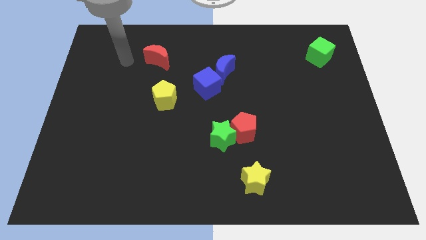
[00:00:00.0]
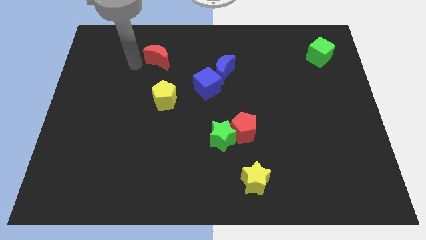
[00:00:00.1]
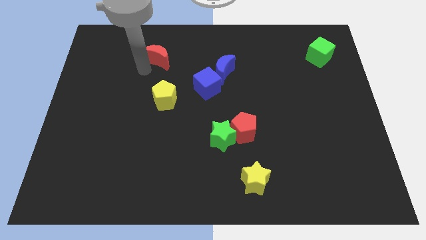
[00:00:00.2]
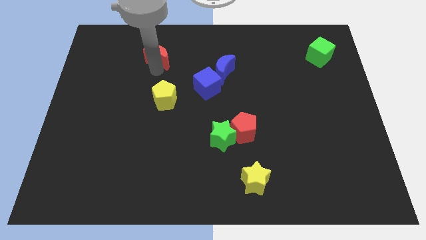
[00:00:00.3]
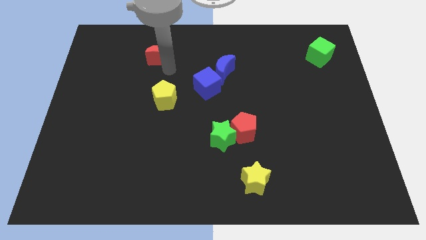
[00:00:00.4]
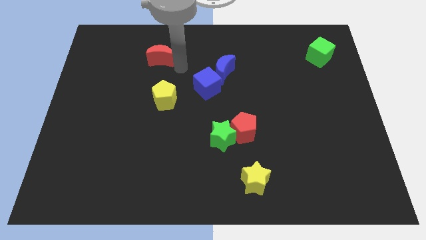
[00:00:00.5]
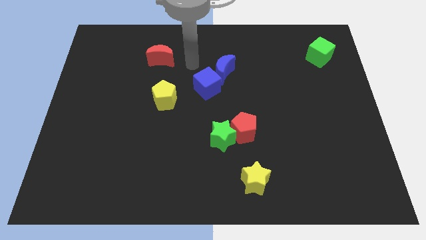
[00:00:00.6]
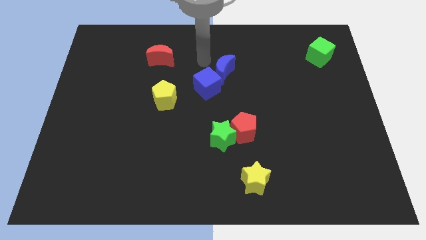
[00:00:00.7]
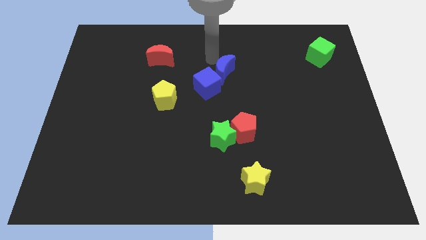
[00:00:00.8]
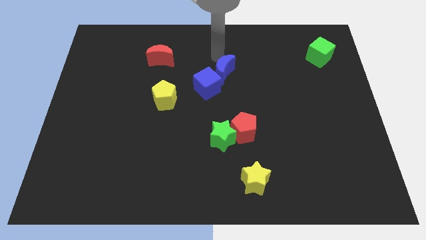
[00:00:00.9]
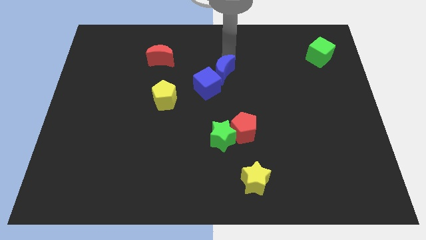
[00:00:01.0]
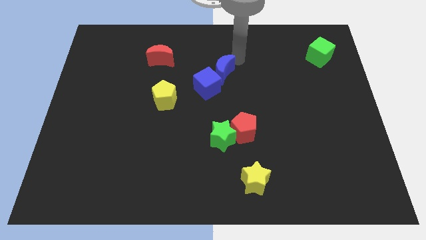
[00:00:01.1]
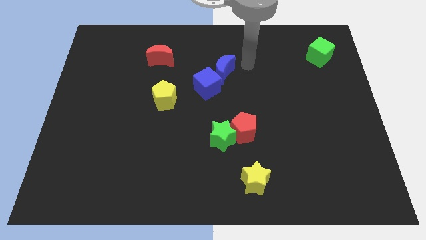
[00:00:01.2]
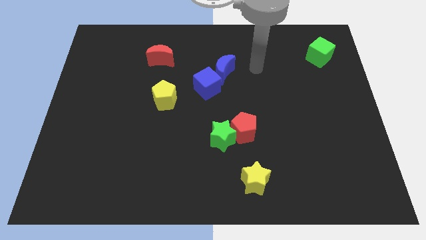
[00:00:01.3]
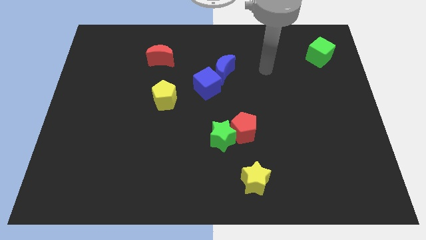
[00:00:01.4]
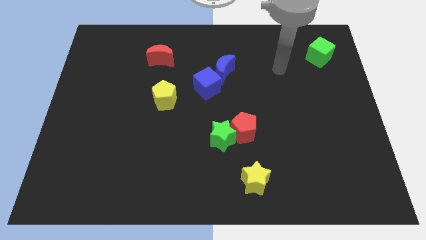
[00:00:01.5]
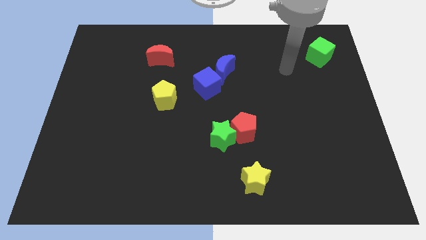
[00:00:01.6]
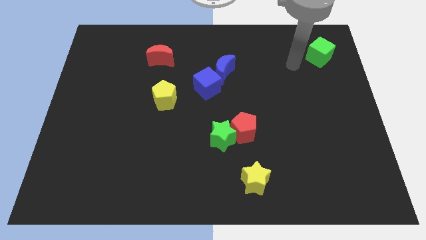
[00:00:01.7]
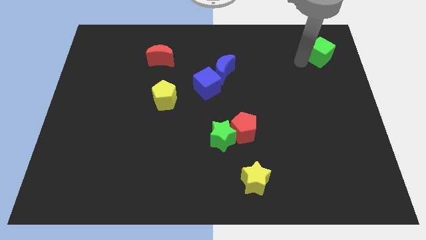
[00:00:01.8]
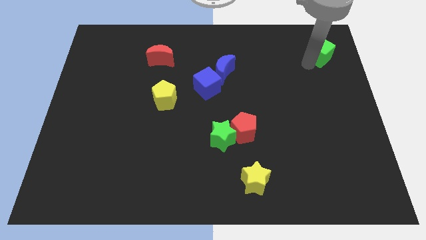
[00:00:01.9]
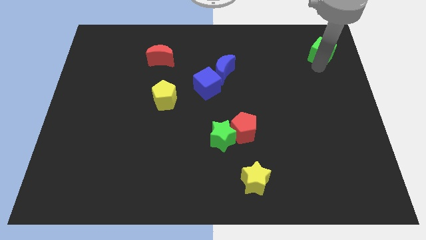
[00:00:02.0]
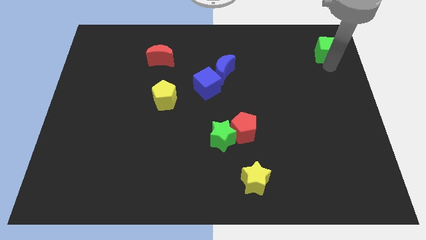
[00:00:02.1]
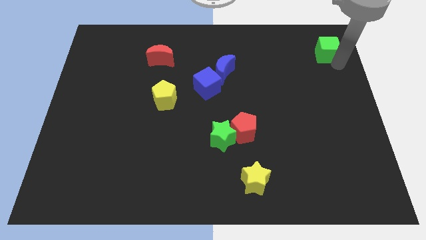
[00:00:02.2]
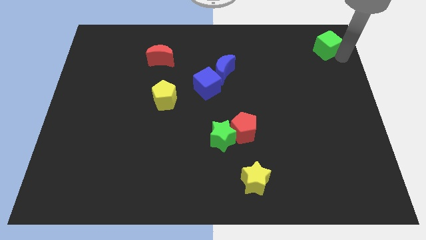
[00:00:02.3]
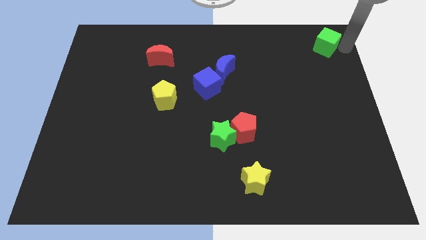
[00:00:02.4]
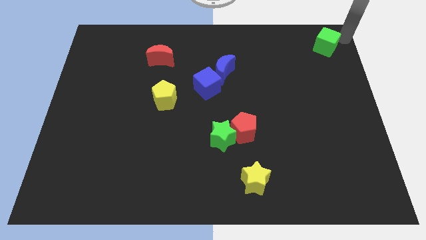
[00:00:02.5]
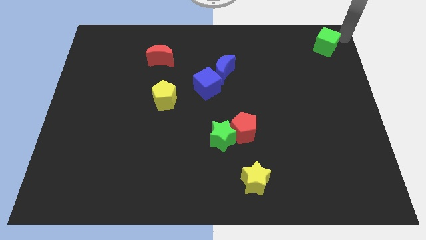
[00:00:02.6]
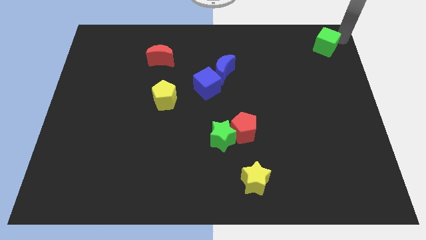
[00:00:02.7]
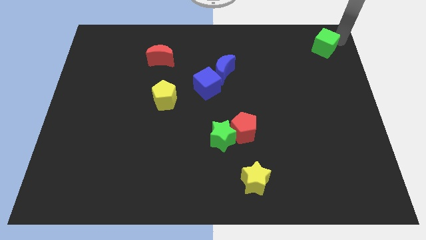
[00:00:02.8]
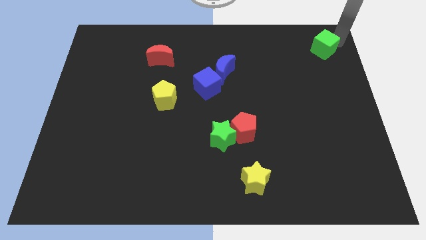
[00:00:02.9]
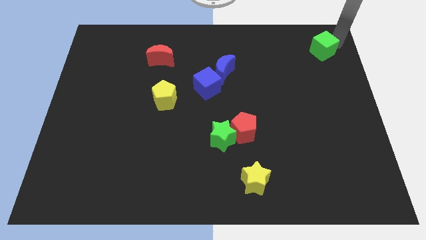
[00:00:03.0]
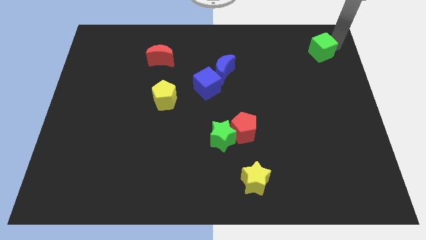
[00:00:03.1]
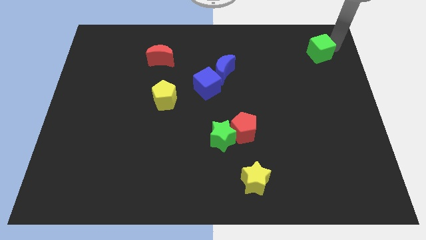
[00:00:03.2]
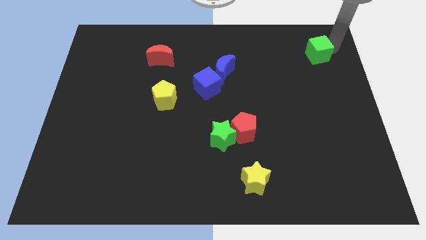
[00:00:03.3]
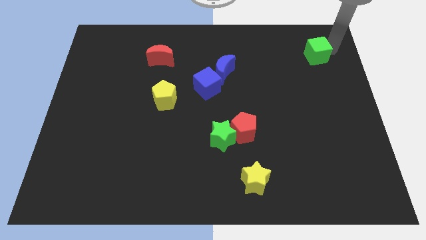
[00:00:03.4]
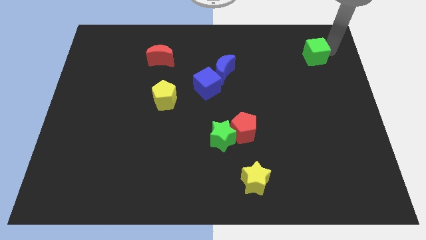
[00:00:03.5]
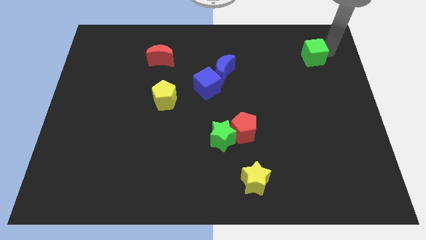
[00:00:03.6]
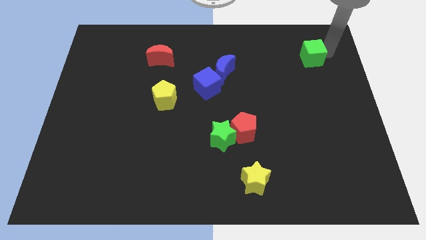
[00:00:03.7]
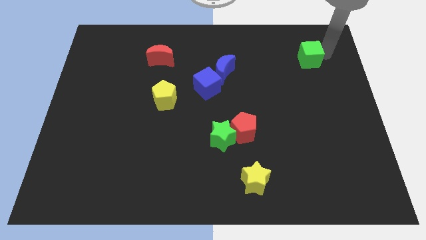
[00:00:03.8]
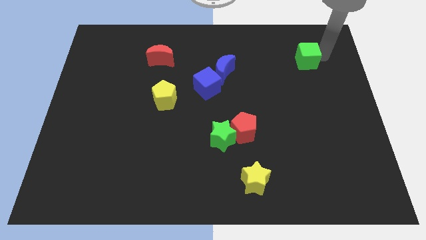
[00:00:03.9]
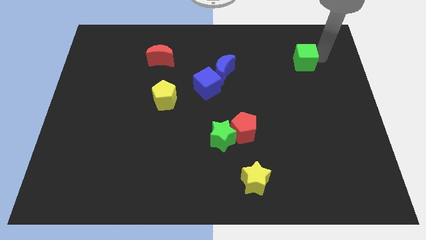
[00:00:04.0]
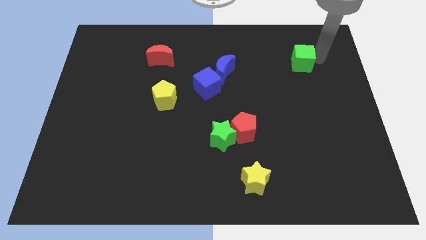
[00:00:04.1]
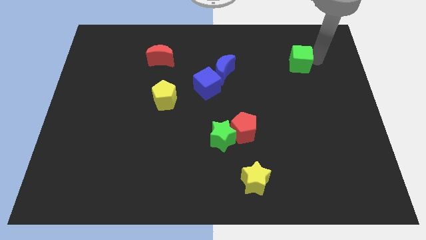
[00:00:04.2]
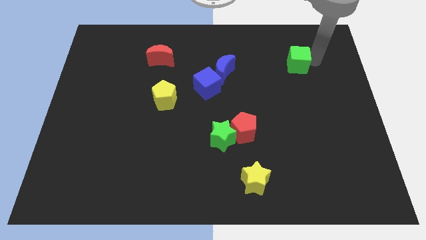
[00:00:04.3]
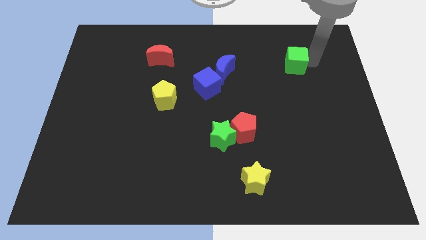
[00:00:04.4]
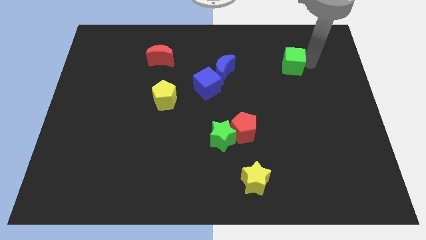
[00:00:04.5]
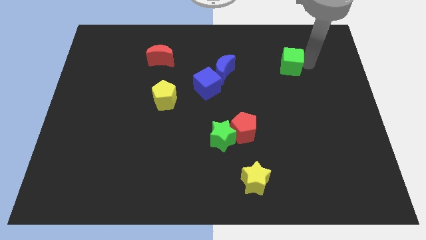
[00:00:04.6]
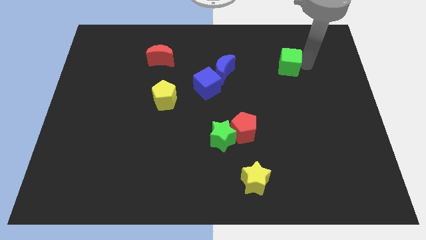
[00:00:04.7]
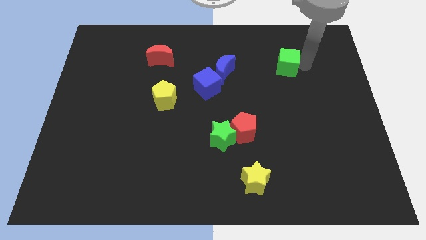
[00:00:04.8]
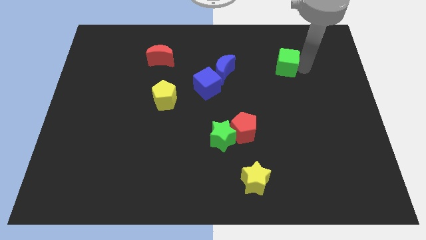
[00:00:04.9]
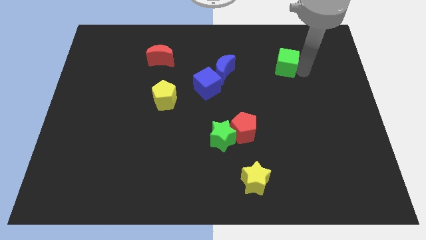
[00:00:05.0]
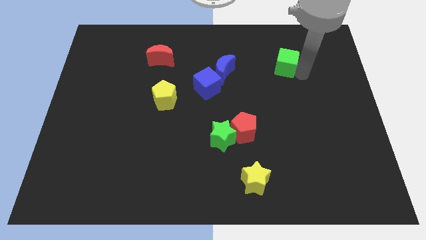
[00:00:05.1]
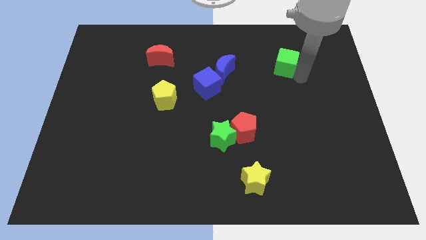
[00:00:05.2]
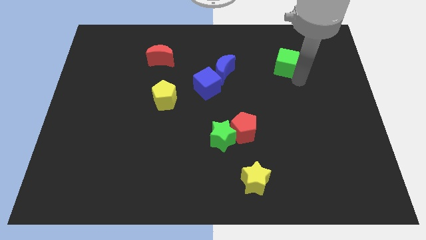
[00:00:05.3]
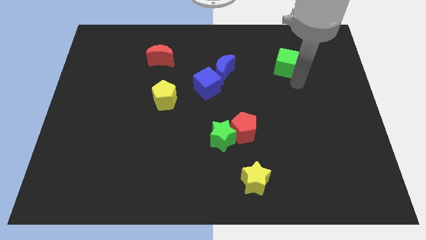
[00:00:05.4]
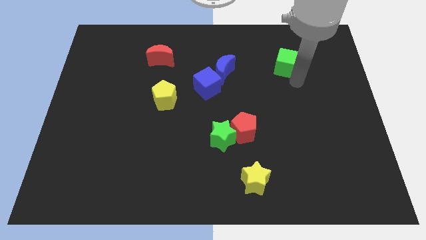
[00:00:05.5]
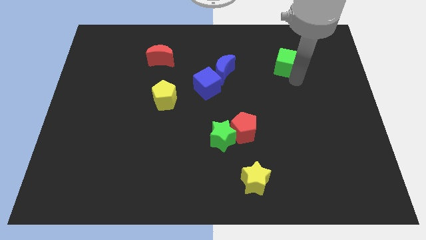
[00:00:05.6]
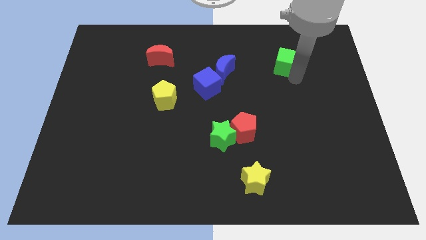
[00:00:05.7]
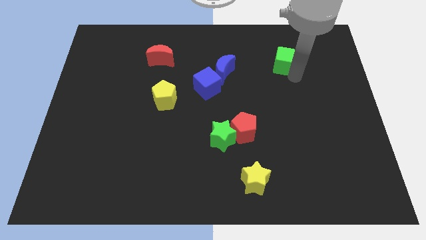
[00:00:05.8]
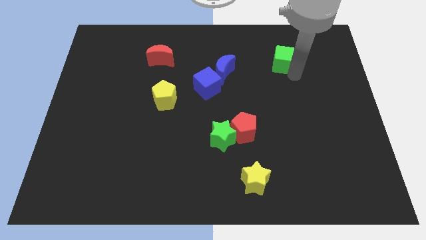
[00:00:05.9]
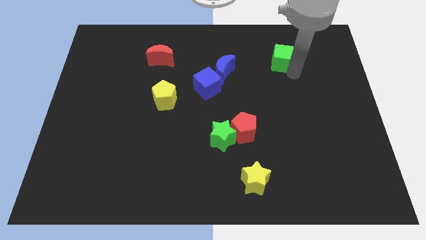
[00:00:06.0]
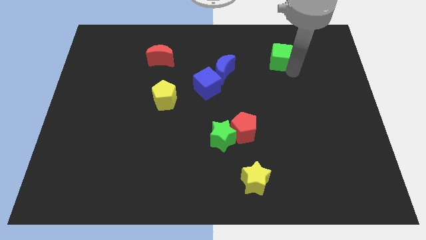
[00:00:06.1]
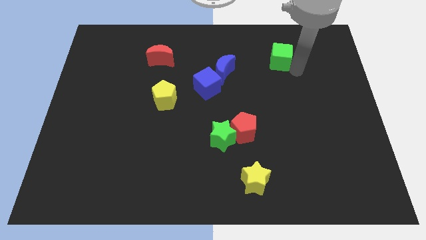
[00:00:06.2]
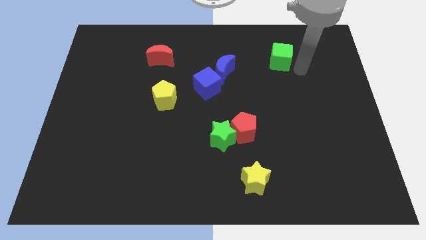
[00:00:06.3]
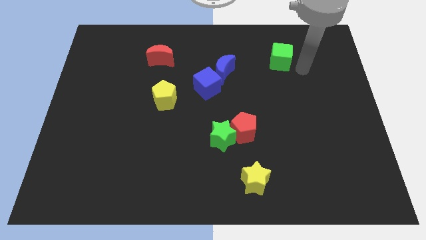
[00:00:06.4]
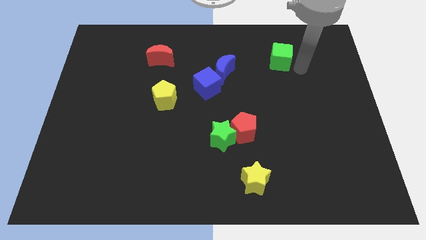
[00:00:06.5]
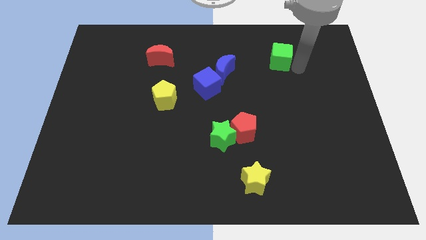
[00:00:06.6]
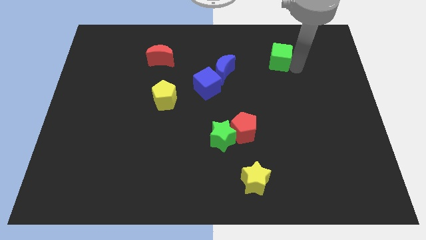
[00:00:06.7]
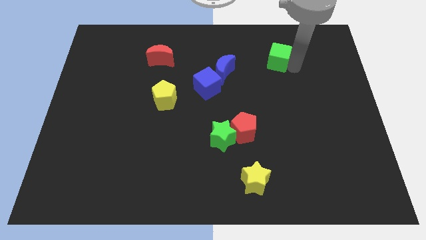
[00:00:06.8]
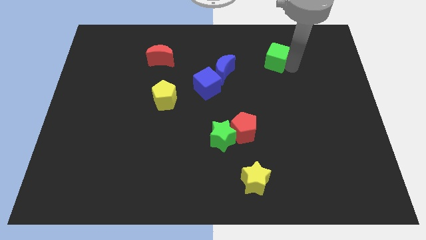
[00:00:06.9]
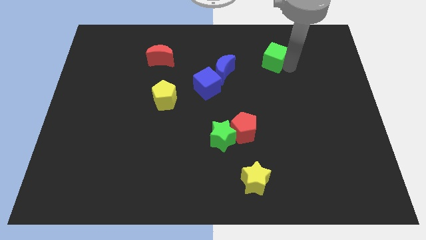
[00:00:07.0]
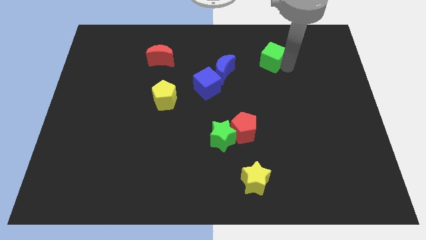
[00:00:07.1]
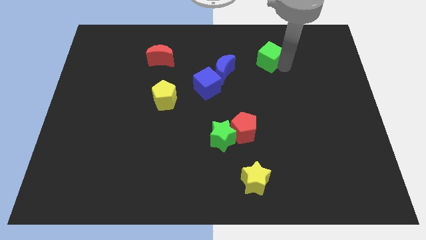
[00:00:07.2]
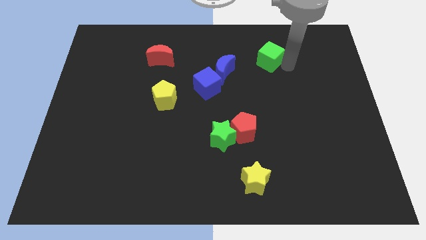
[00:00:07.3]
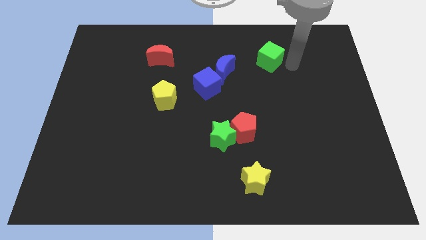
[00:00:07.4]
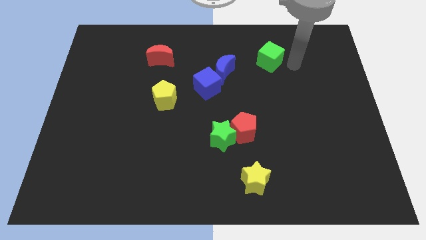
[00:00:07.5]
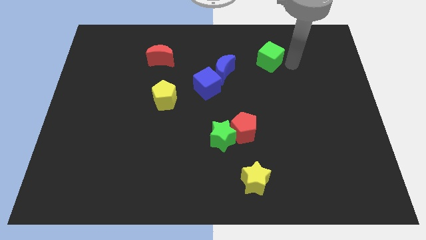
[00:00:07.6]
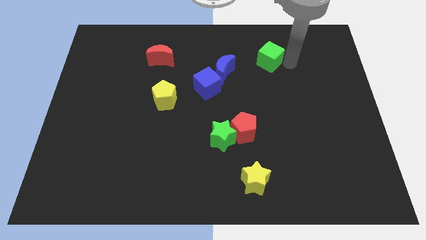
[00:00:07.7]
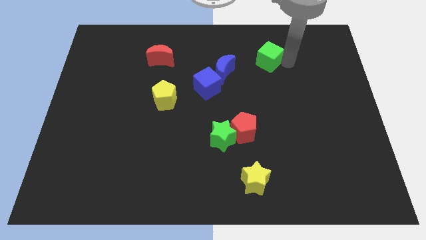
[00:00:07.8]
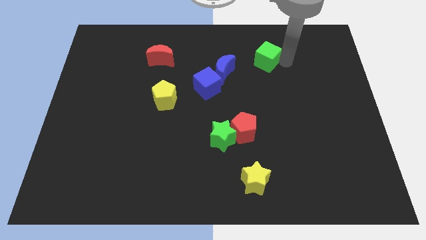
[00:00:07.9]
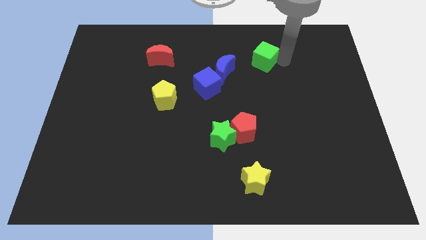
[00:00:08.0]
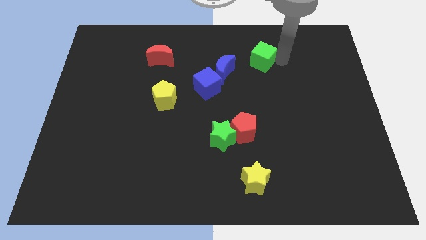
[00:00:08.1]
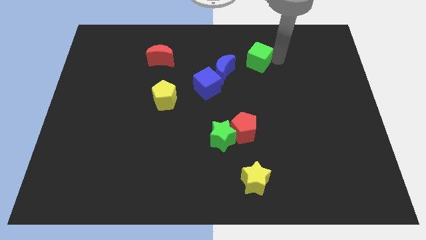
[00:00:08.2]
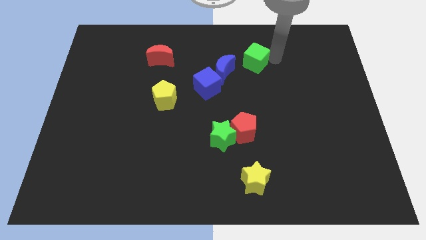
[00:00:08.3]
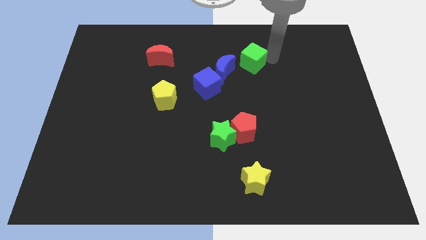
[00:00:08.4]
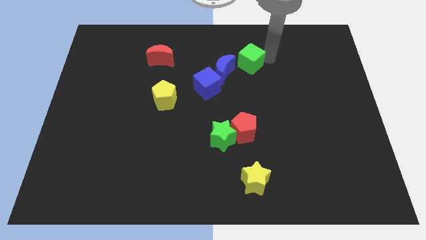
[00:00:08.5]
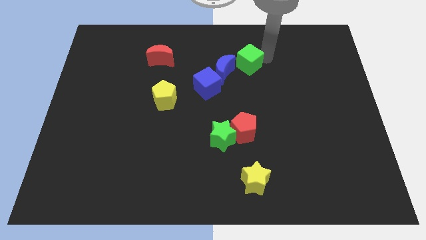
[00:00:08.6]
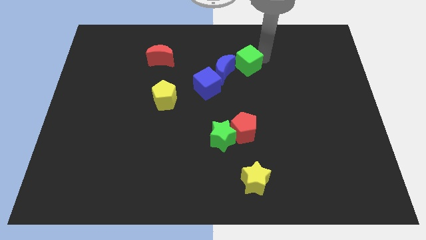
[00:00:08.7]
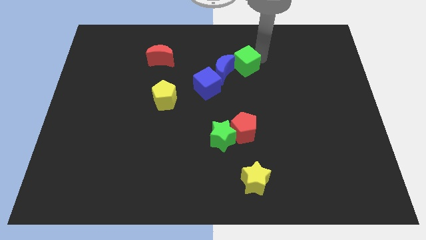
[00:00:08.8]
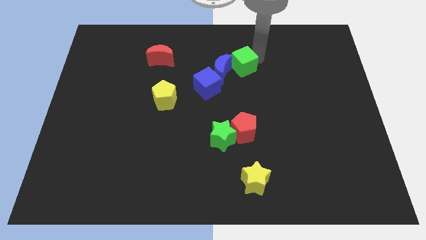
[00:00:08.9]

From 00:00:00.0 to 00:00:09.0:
slide the green cube left
